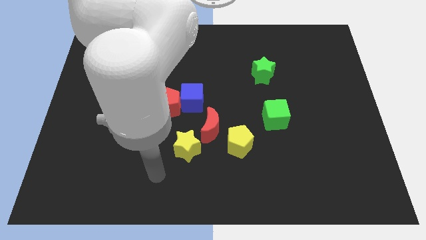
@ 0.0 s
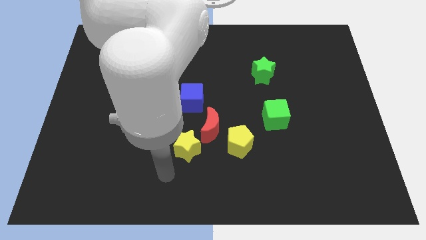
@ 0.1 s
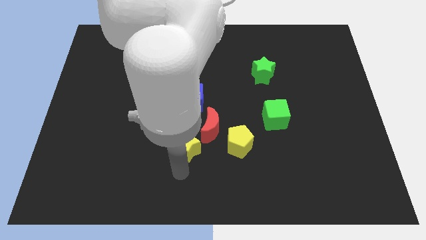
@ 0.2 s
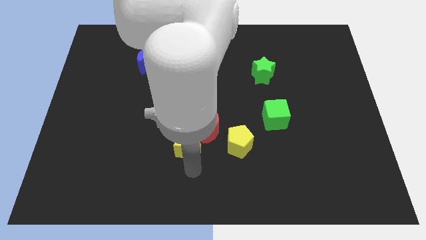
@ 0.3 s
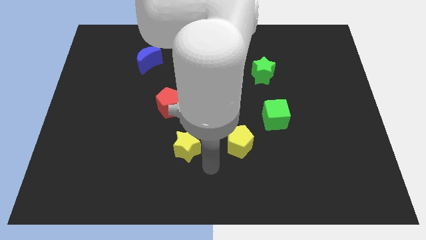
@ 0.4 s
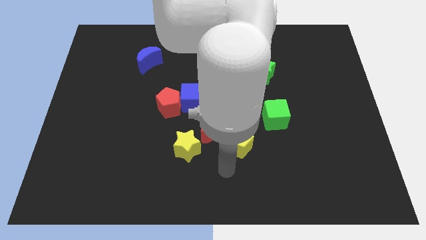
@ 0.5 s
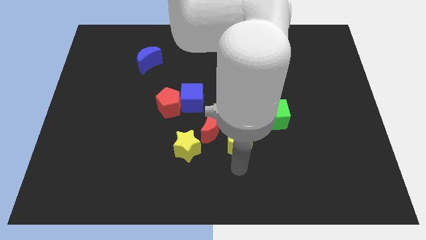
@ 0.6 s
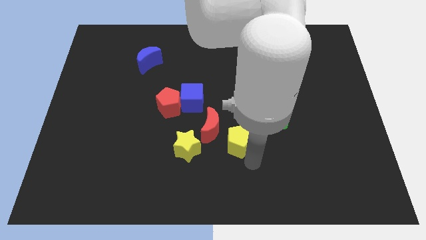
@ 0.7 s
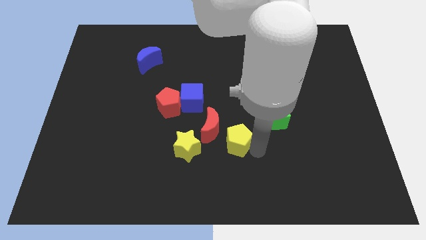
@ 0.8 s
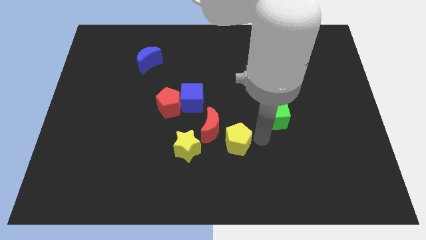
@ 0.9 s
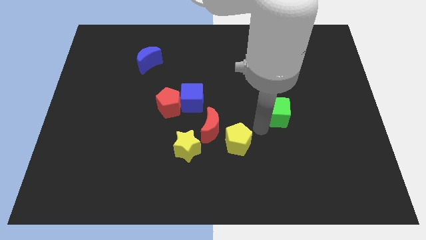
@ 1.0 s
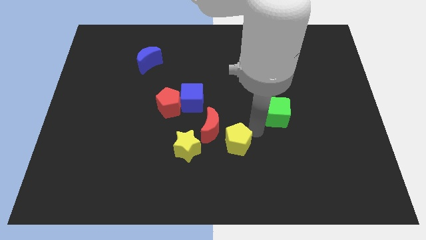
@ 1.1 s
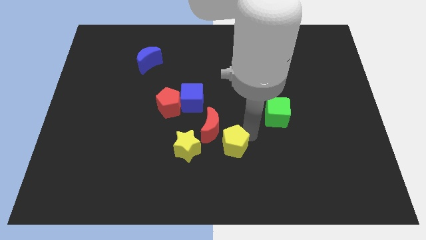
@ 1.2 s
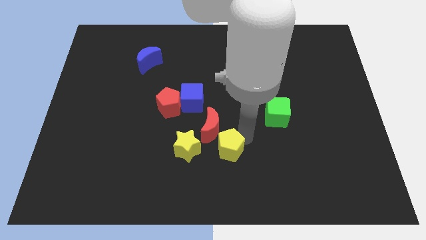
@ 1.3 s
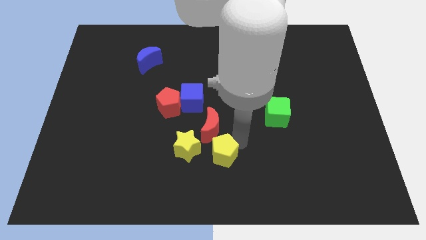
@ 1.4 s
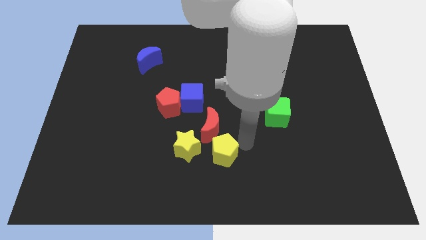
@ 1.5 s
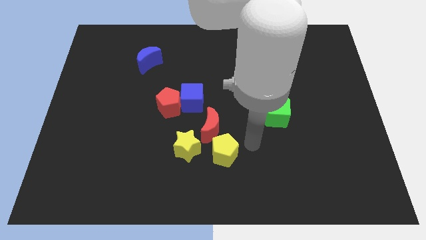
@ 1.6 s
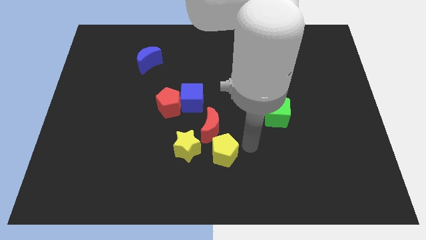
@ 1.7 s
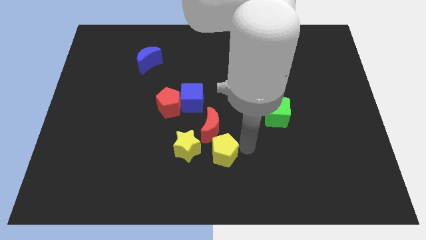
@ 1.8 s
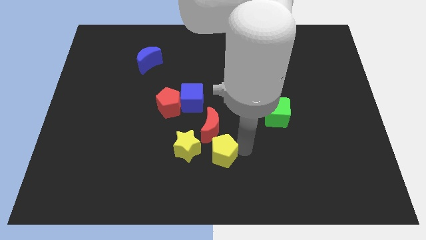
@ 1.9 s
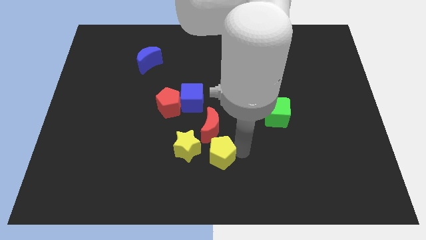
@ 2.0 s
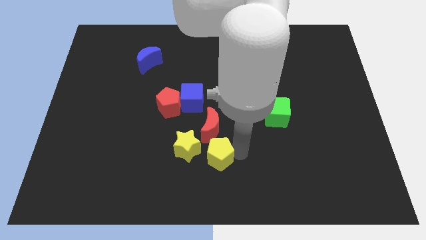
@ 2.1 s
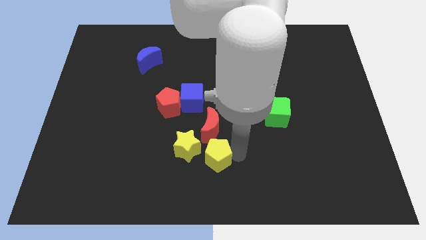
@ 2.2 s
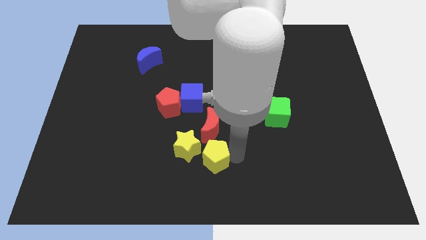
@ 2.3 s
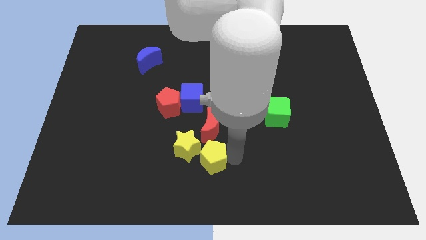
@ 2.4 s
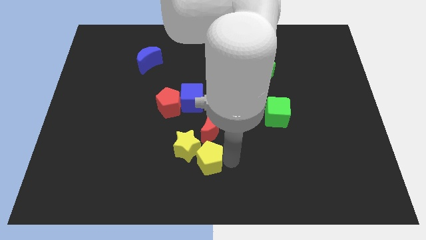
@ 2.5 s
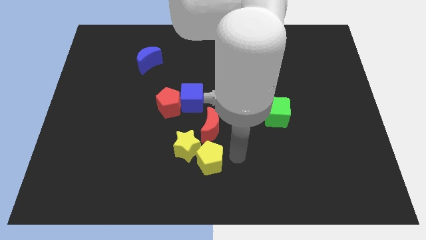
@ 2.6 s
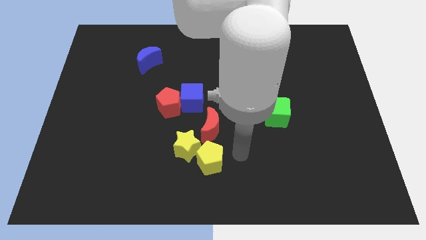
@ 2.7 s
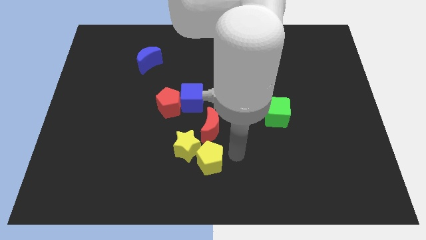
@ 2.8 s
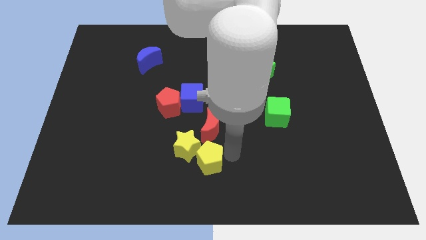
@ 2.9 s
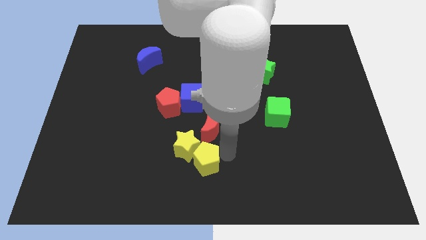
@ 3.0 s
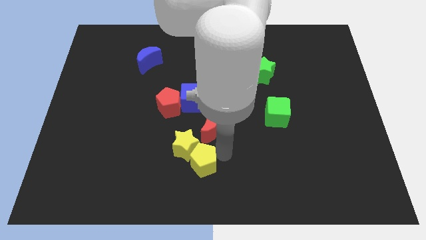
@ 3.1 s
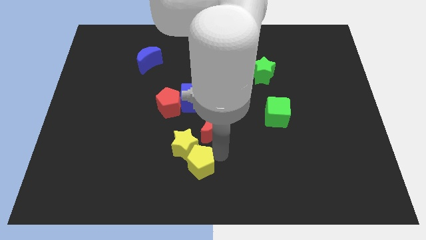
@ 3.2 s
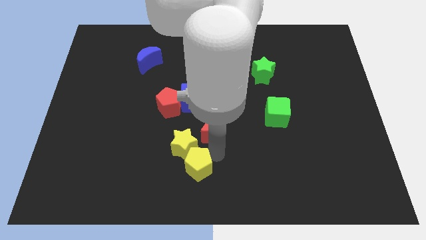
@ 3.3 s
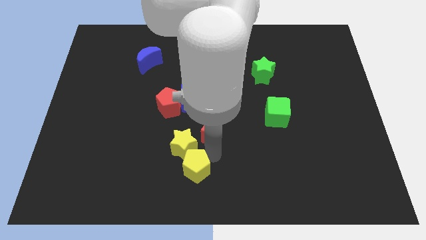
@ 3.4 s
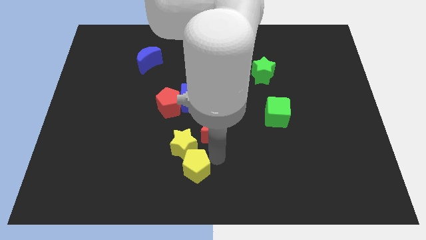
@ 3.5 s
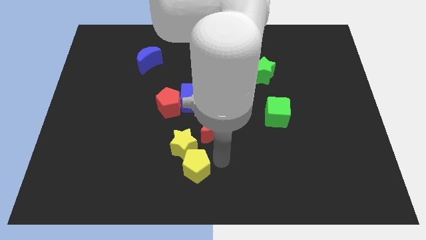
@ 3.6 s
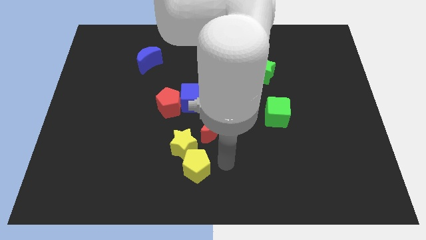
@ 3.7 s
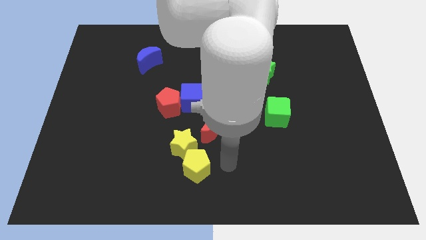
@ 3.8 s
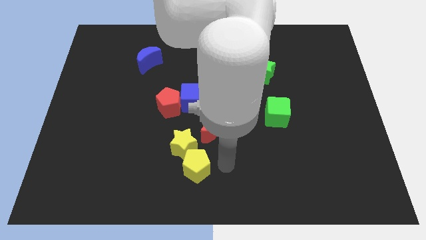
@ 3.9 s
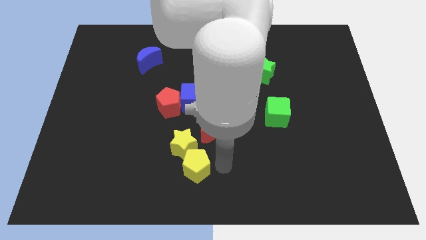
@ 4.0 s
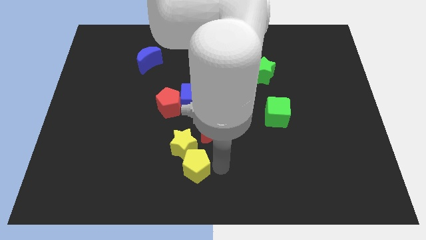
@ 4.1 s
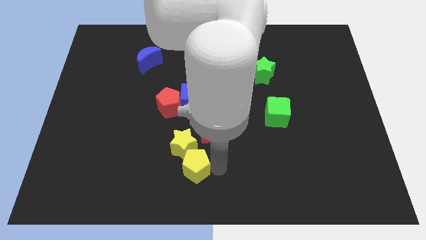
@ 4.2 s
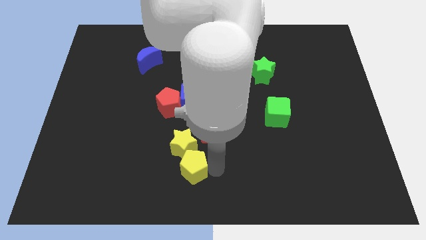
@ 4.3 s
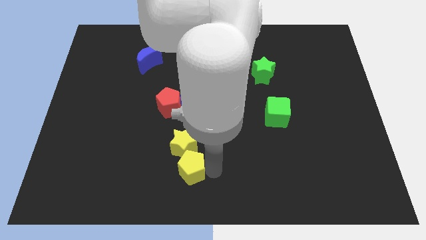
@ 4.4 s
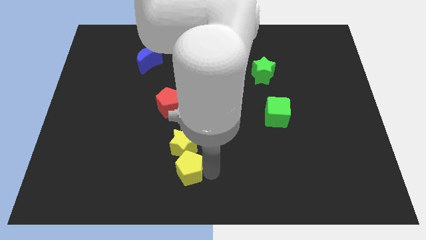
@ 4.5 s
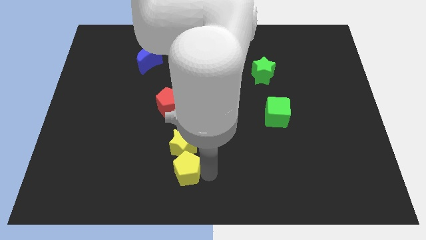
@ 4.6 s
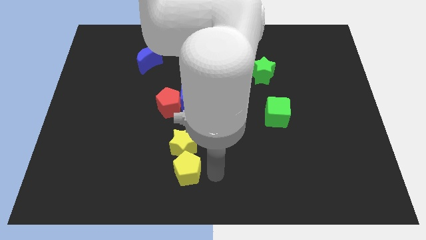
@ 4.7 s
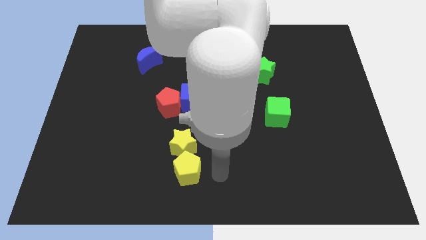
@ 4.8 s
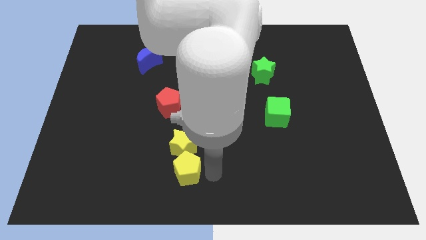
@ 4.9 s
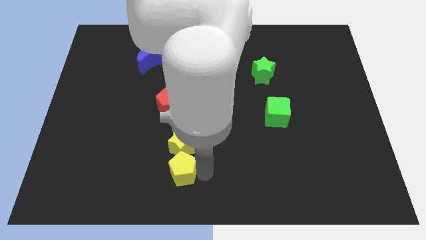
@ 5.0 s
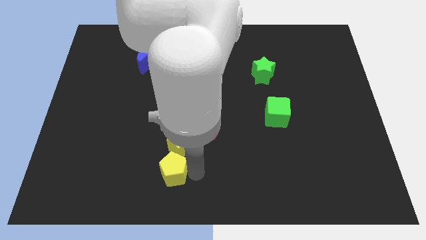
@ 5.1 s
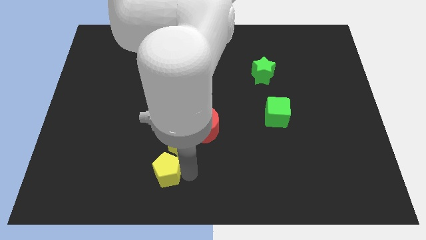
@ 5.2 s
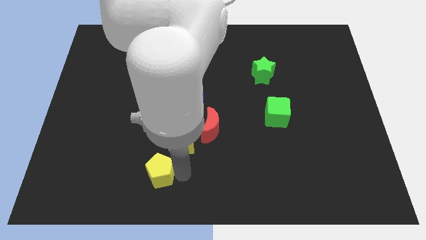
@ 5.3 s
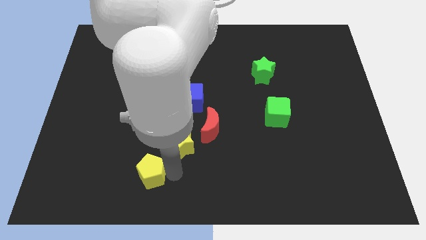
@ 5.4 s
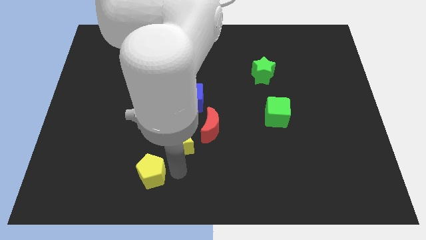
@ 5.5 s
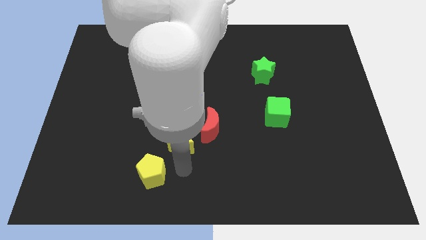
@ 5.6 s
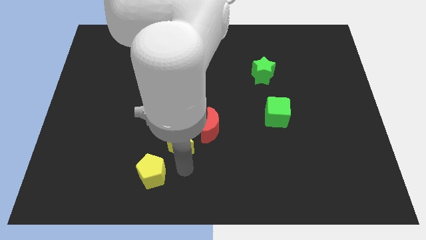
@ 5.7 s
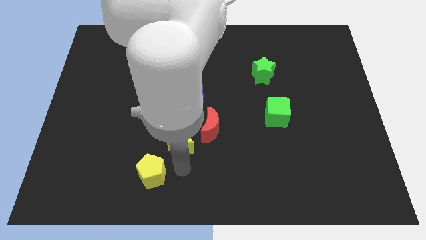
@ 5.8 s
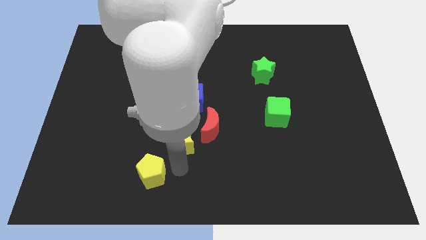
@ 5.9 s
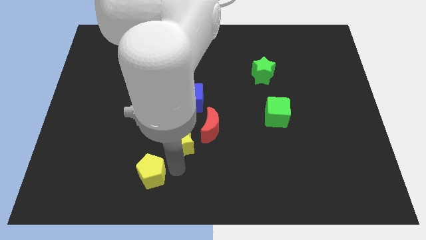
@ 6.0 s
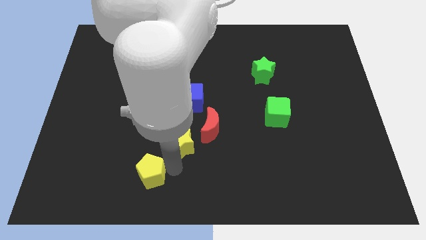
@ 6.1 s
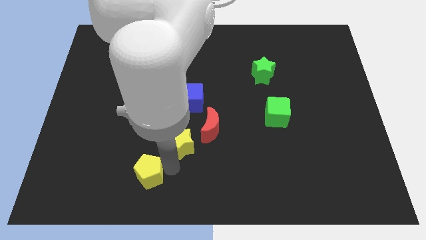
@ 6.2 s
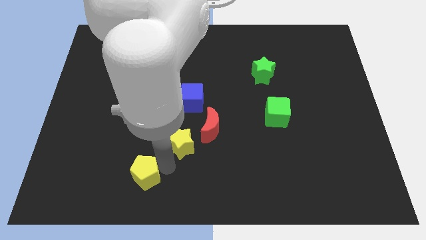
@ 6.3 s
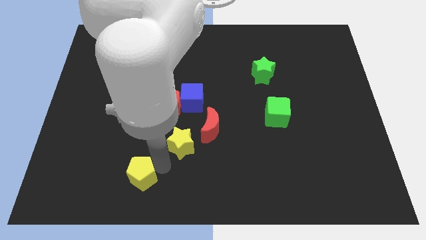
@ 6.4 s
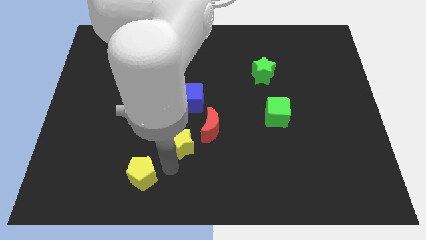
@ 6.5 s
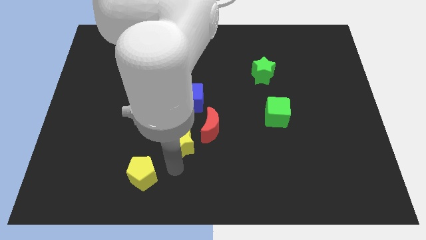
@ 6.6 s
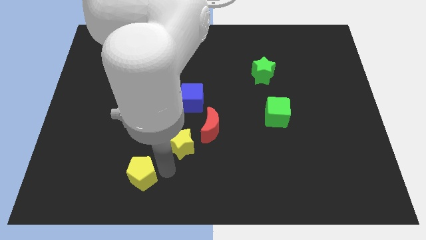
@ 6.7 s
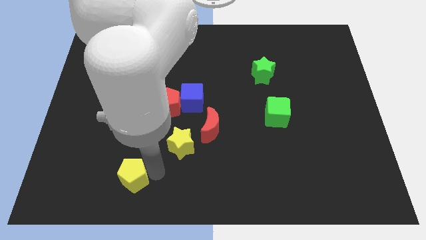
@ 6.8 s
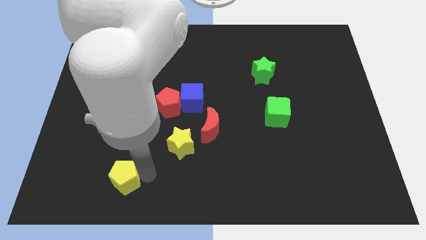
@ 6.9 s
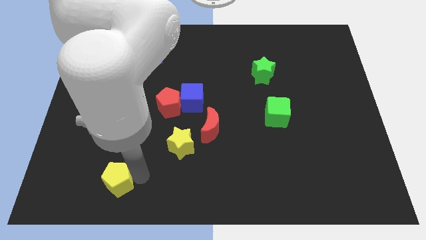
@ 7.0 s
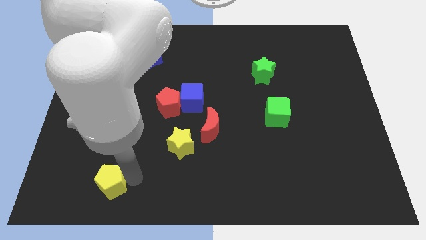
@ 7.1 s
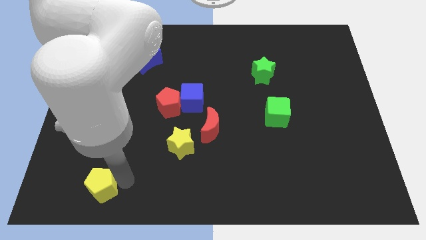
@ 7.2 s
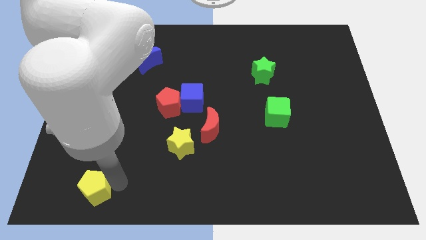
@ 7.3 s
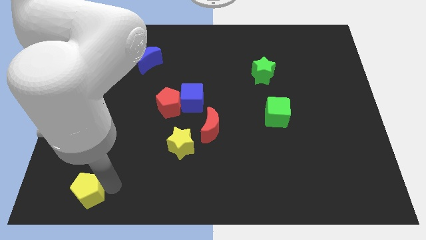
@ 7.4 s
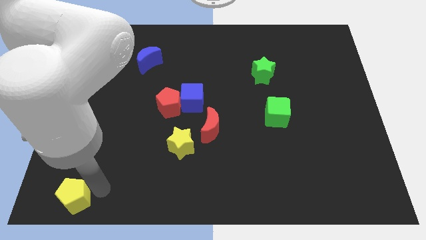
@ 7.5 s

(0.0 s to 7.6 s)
move the yellow pentagon to the bottom left
